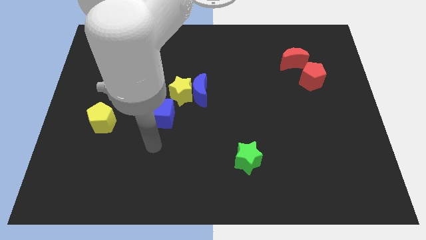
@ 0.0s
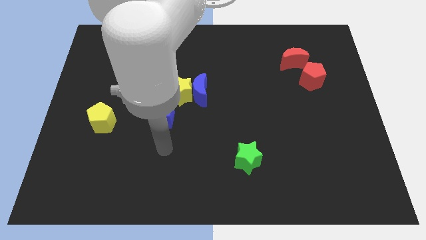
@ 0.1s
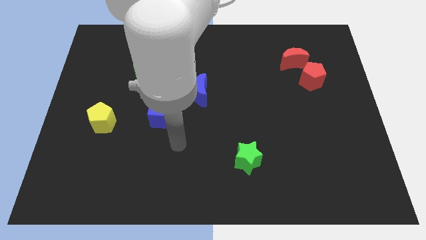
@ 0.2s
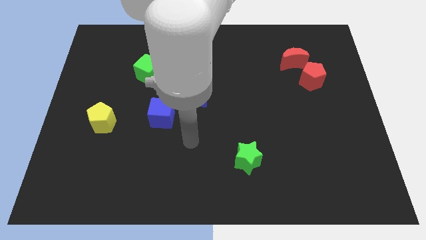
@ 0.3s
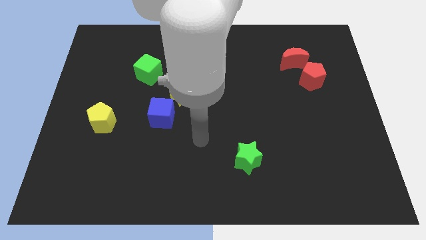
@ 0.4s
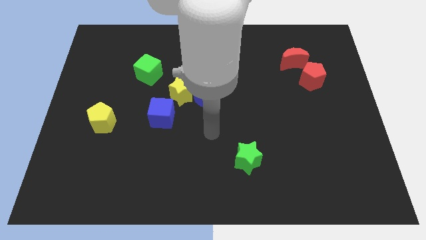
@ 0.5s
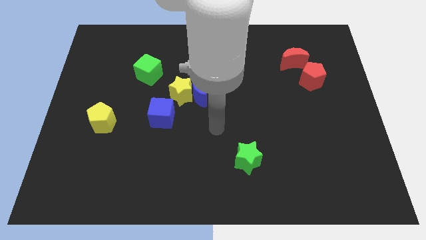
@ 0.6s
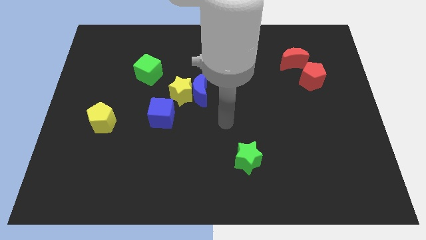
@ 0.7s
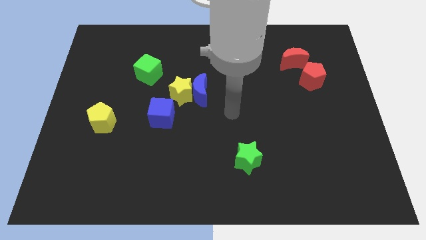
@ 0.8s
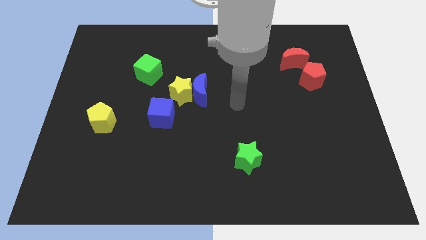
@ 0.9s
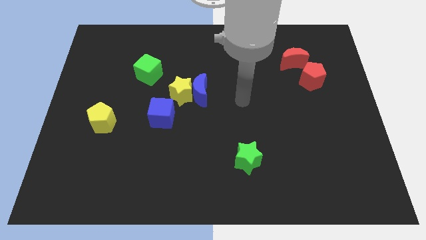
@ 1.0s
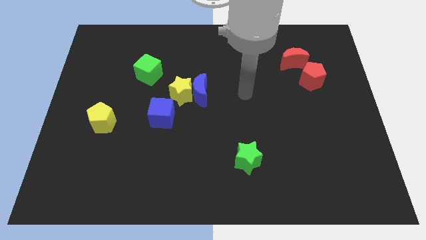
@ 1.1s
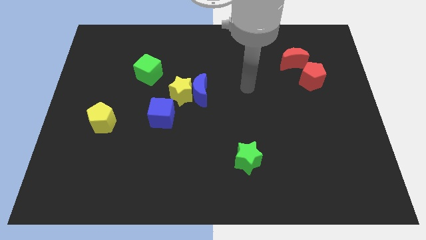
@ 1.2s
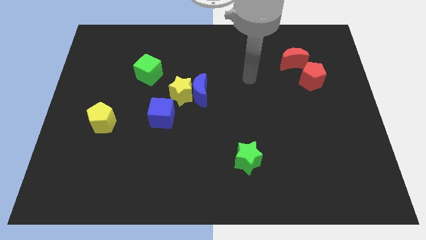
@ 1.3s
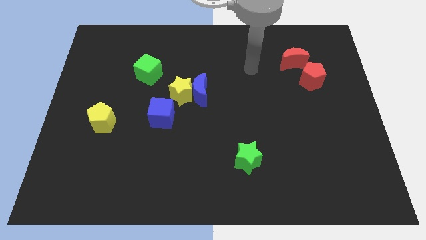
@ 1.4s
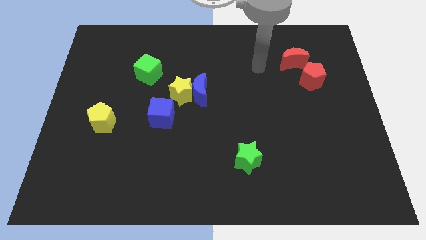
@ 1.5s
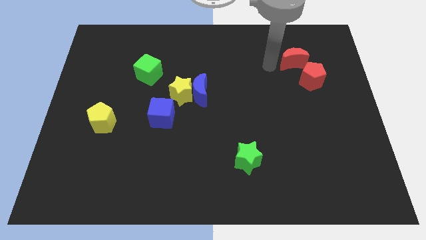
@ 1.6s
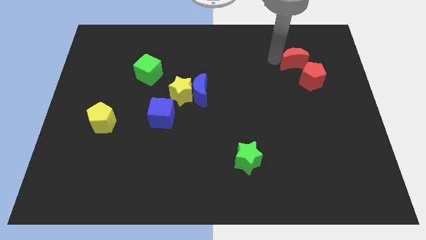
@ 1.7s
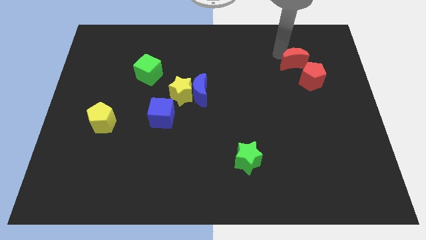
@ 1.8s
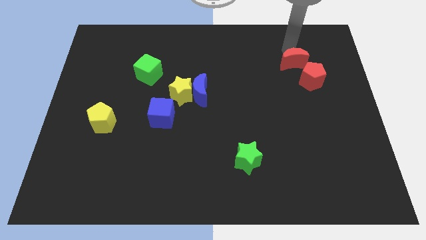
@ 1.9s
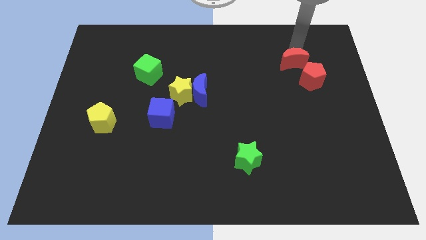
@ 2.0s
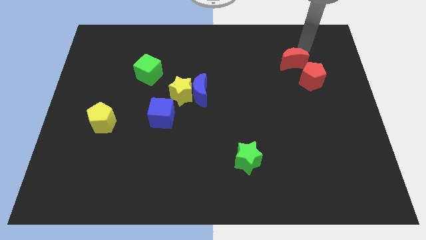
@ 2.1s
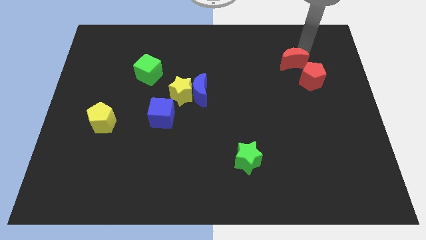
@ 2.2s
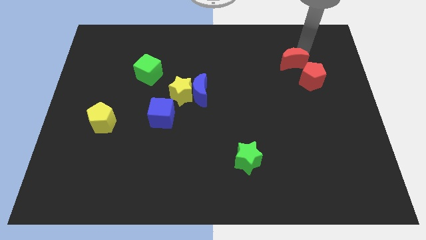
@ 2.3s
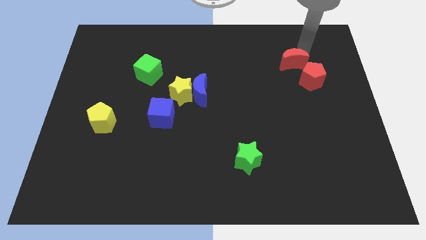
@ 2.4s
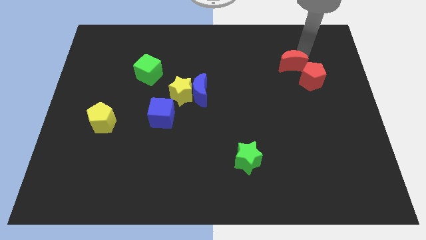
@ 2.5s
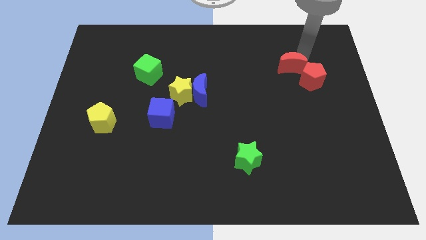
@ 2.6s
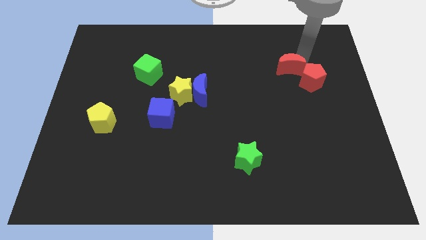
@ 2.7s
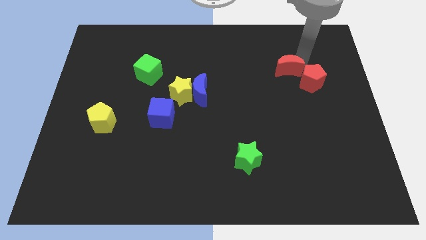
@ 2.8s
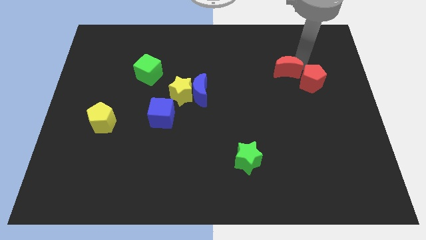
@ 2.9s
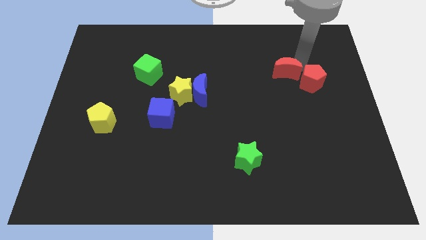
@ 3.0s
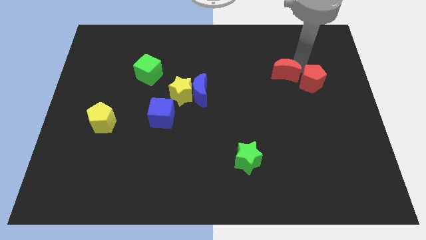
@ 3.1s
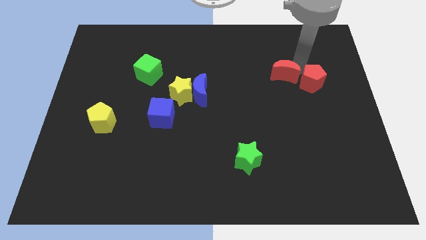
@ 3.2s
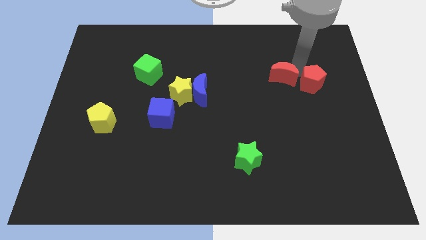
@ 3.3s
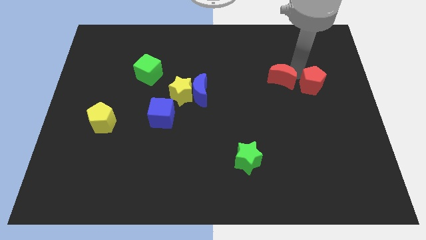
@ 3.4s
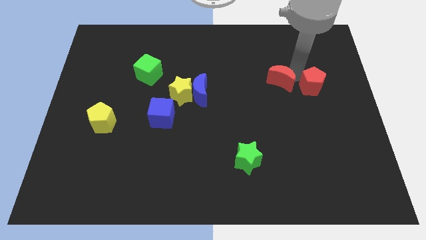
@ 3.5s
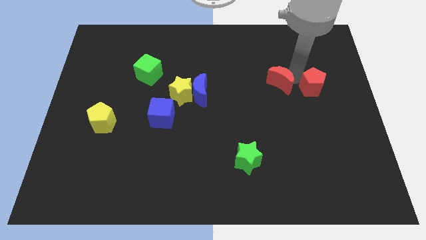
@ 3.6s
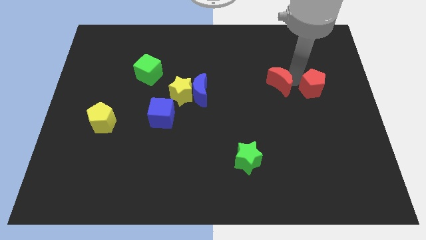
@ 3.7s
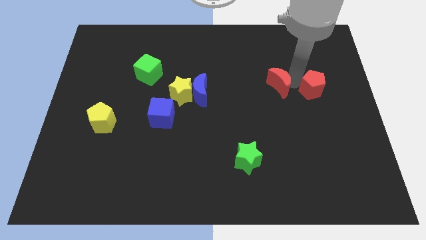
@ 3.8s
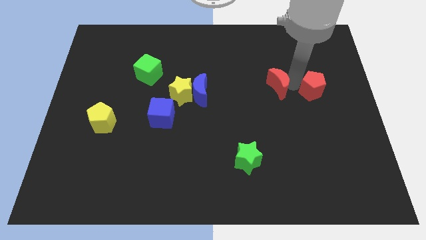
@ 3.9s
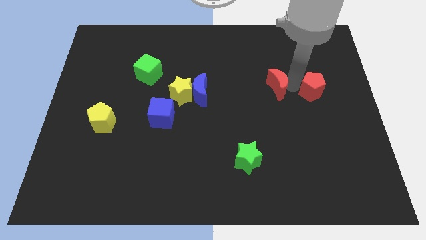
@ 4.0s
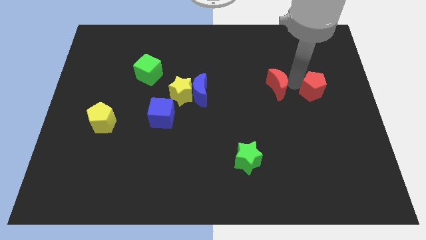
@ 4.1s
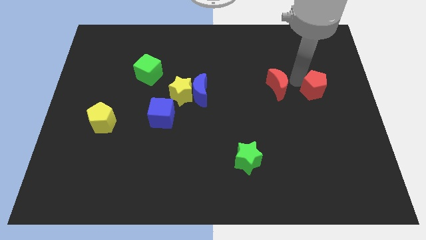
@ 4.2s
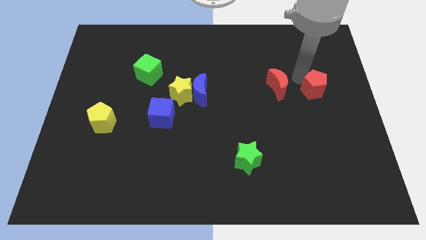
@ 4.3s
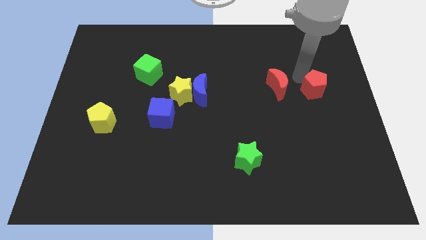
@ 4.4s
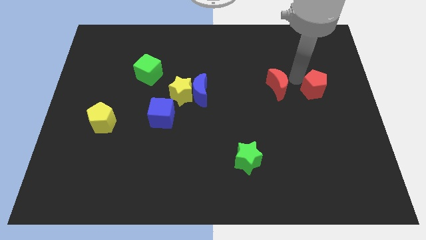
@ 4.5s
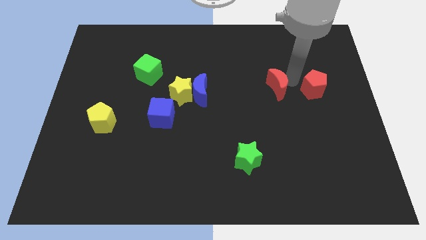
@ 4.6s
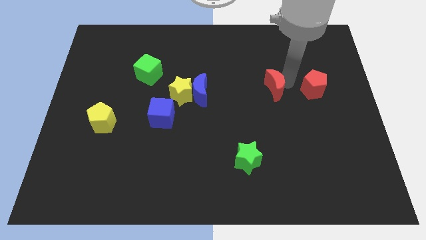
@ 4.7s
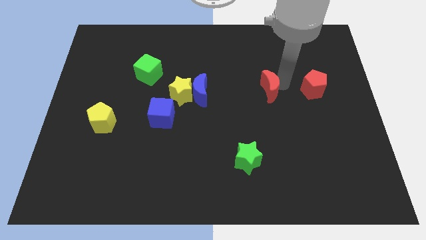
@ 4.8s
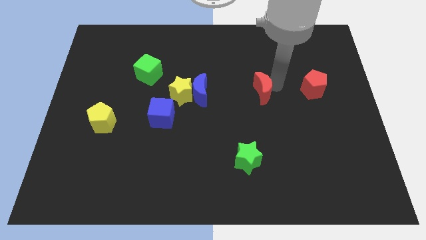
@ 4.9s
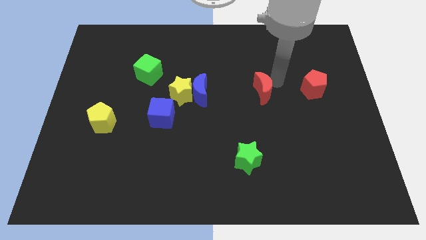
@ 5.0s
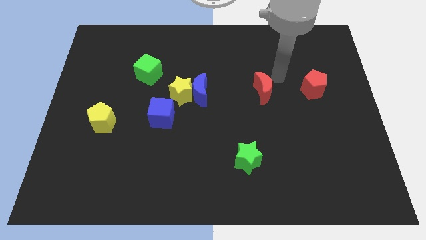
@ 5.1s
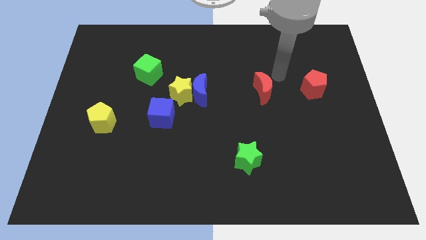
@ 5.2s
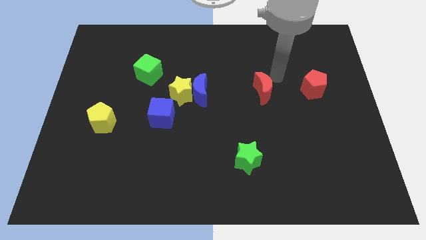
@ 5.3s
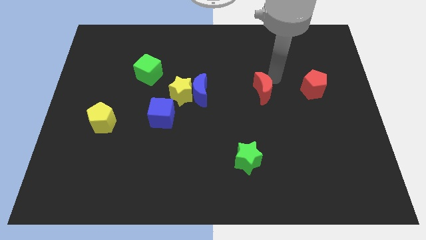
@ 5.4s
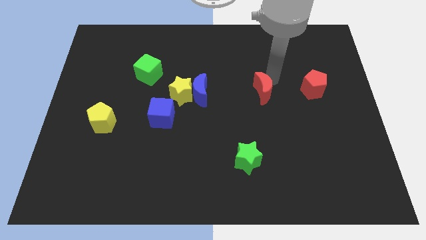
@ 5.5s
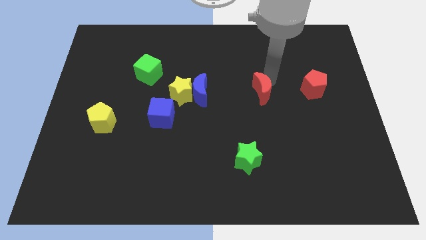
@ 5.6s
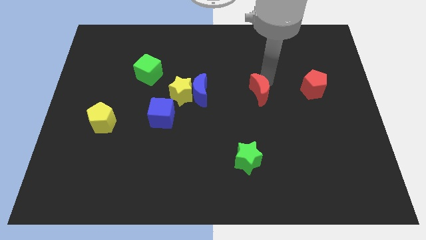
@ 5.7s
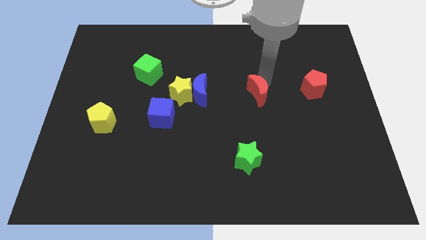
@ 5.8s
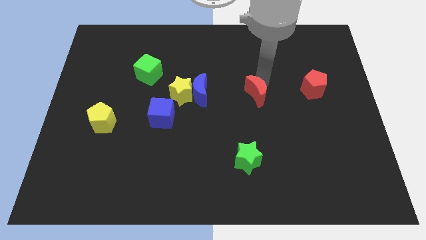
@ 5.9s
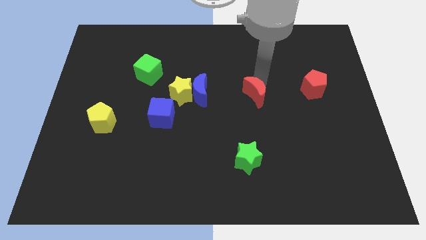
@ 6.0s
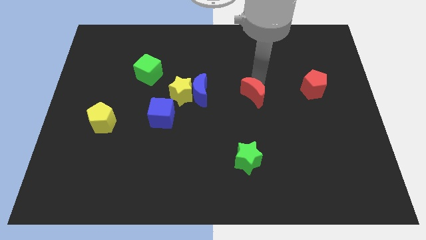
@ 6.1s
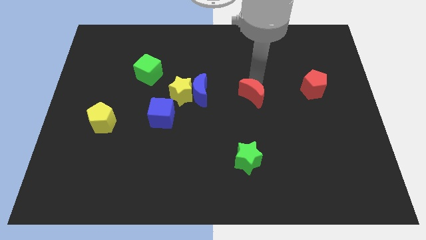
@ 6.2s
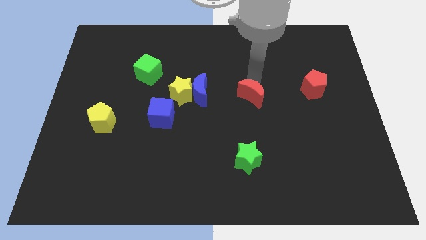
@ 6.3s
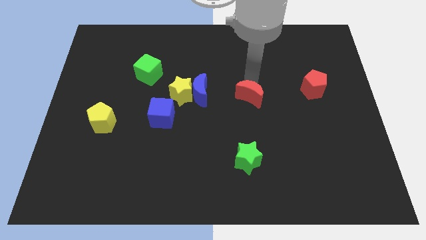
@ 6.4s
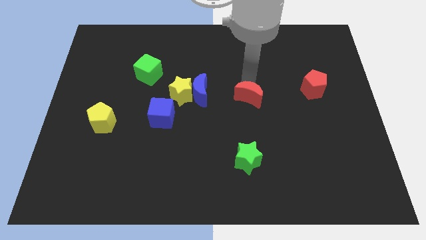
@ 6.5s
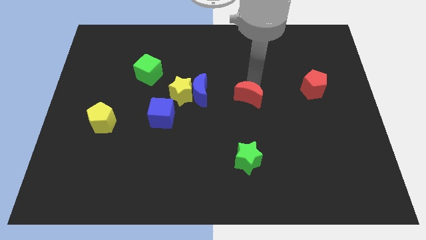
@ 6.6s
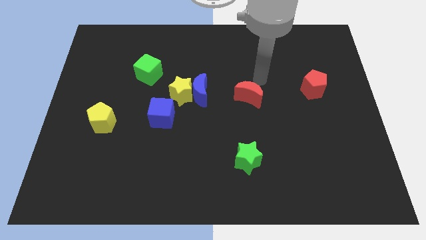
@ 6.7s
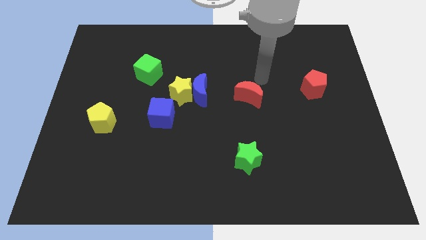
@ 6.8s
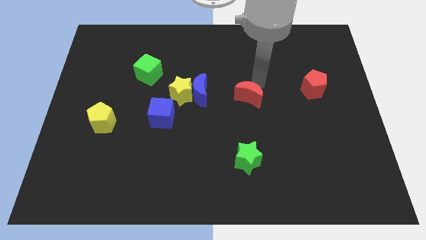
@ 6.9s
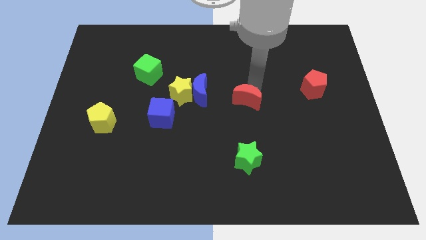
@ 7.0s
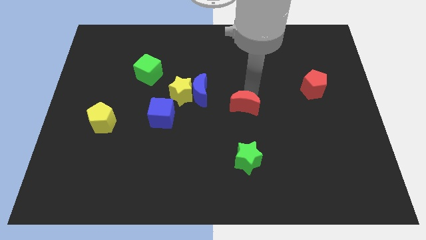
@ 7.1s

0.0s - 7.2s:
move the red moon down and left

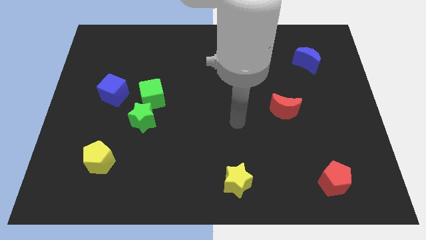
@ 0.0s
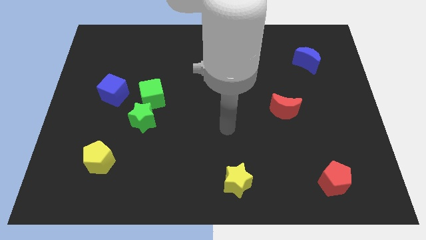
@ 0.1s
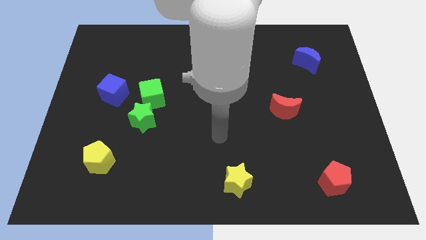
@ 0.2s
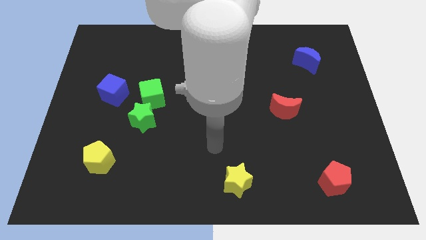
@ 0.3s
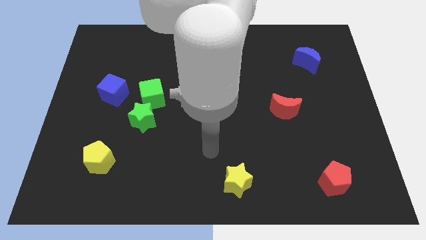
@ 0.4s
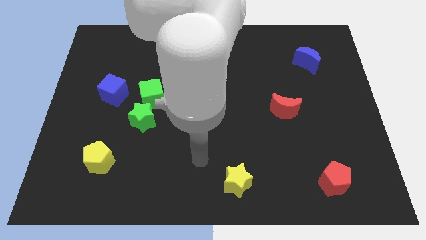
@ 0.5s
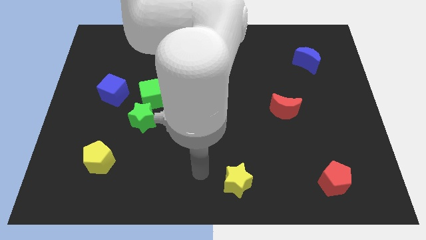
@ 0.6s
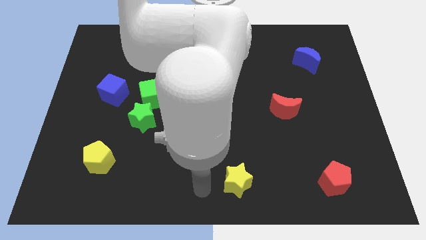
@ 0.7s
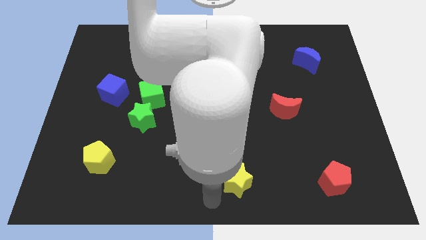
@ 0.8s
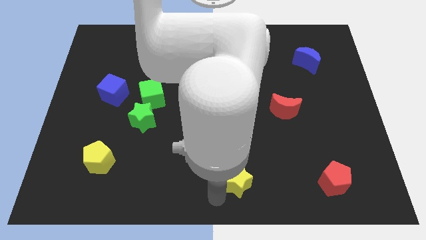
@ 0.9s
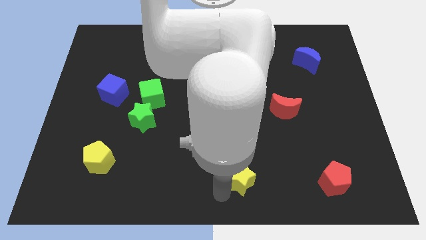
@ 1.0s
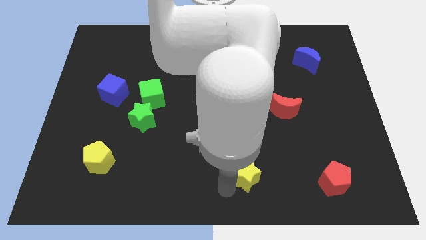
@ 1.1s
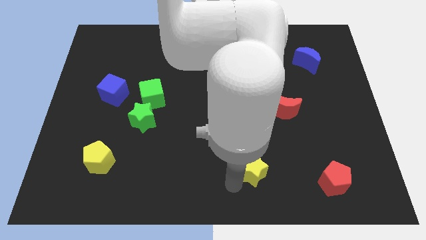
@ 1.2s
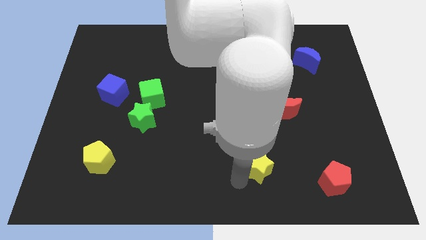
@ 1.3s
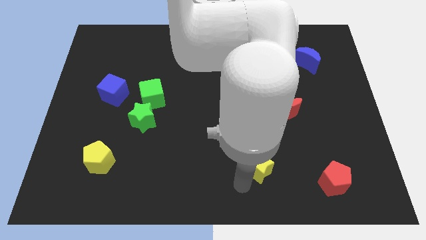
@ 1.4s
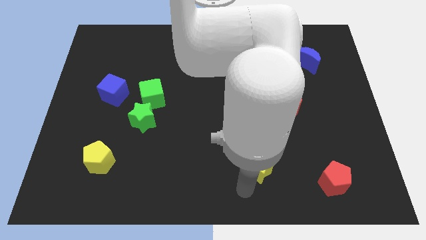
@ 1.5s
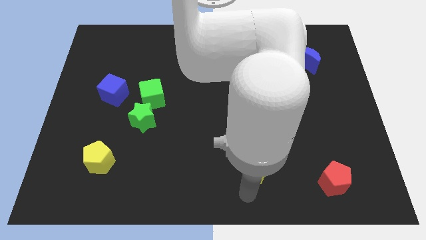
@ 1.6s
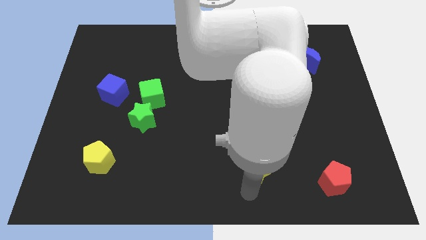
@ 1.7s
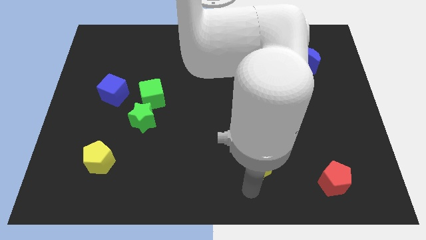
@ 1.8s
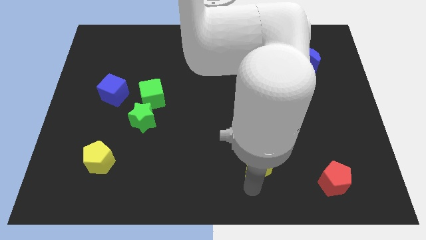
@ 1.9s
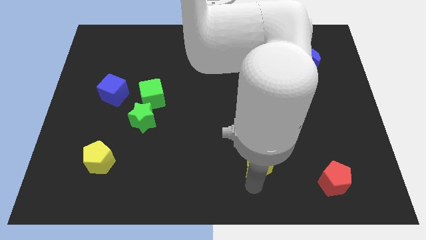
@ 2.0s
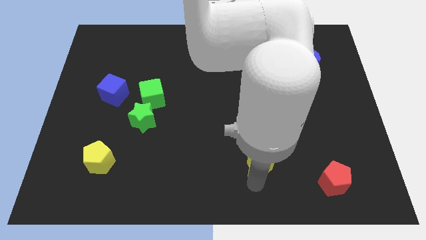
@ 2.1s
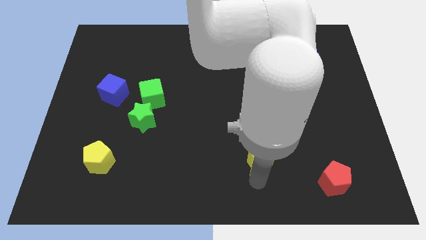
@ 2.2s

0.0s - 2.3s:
slightly slide the yellow star diagonally up and to the right
